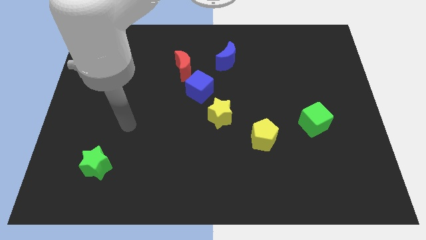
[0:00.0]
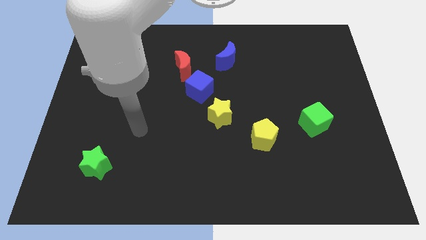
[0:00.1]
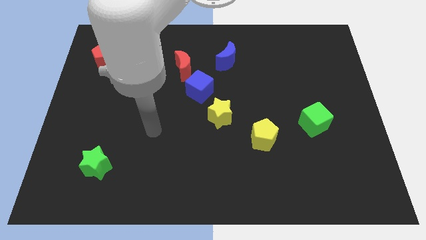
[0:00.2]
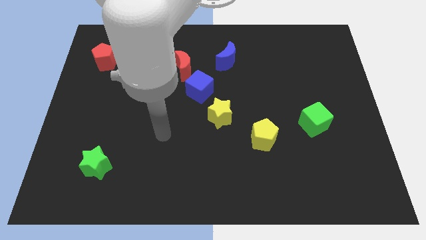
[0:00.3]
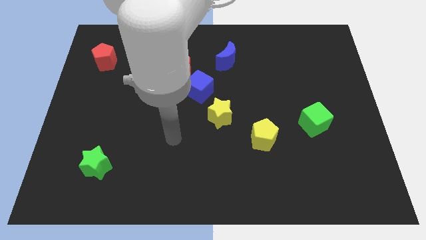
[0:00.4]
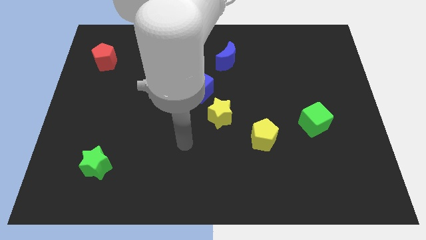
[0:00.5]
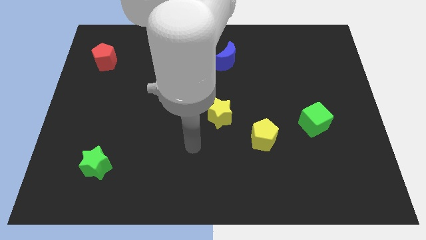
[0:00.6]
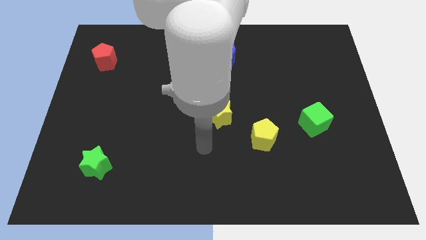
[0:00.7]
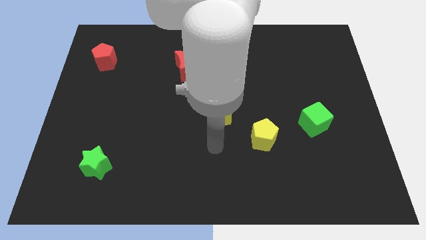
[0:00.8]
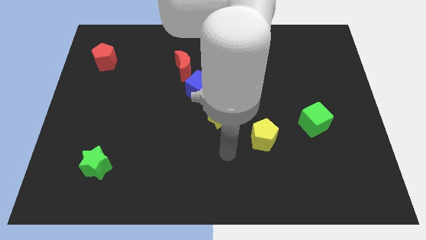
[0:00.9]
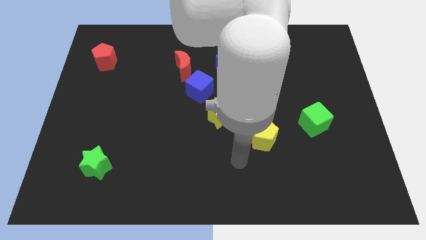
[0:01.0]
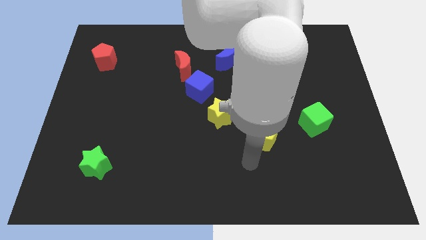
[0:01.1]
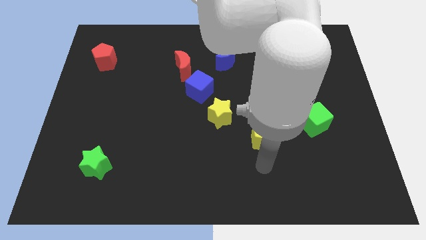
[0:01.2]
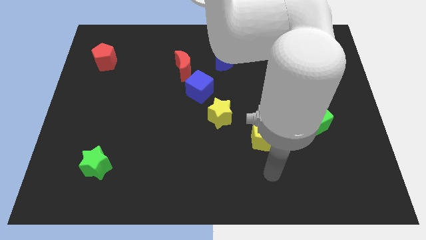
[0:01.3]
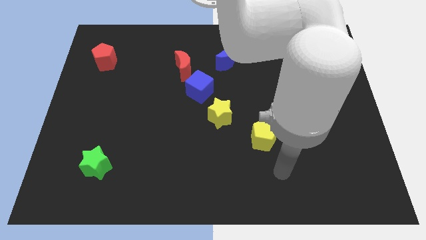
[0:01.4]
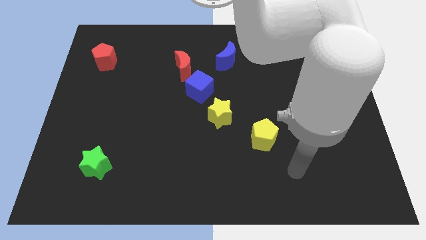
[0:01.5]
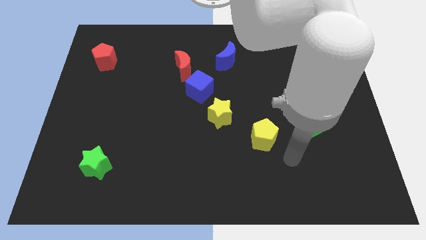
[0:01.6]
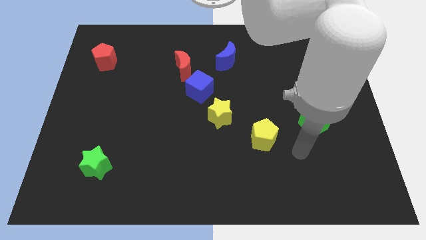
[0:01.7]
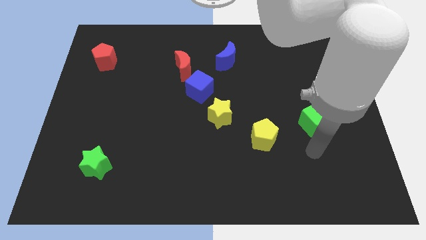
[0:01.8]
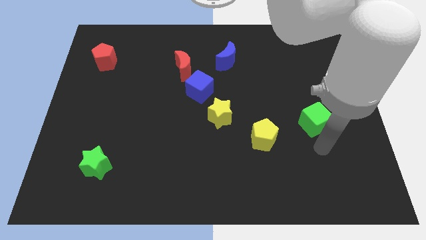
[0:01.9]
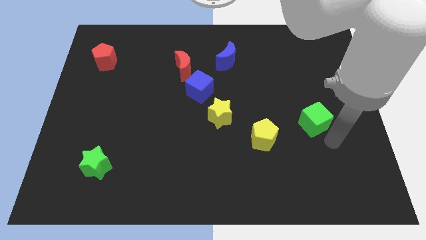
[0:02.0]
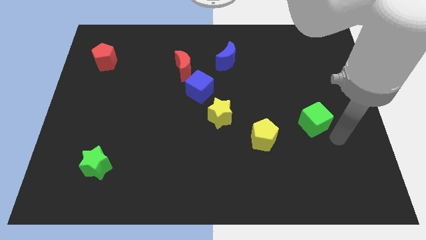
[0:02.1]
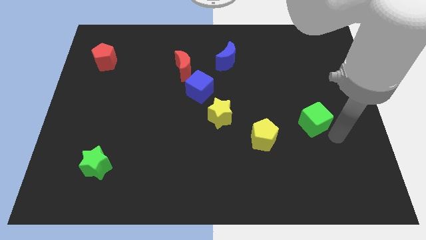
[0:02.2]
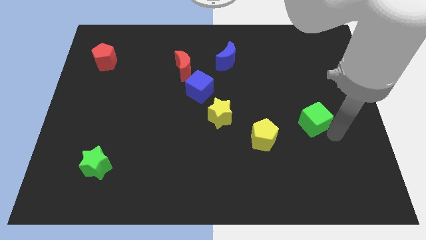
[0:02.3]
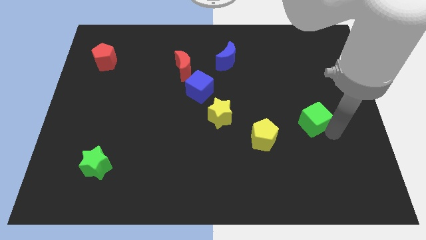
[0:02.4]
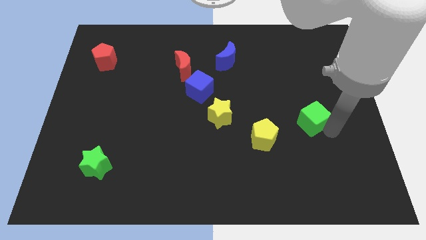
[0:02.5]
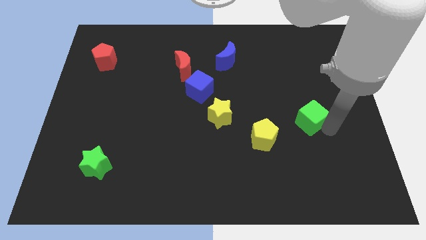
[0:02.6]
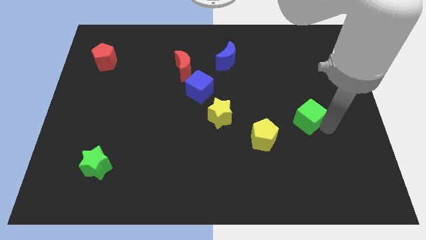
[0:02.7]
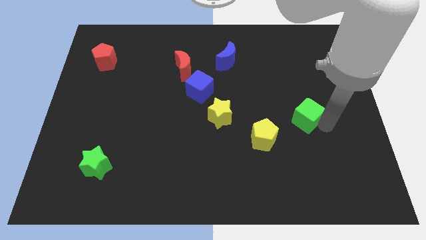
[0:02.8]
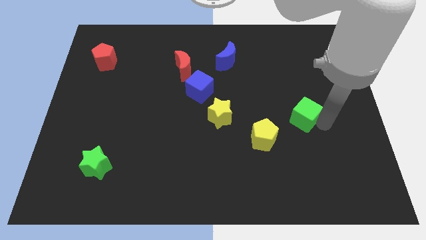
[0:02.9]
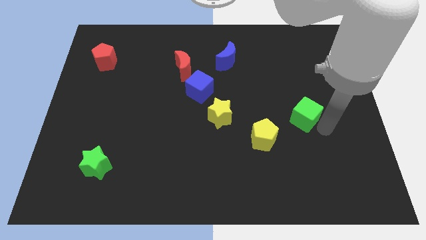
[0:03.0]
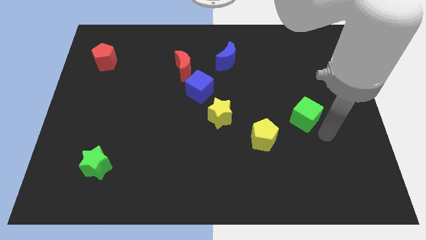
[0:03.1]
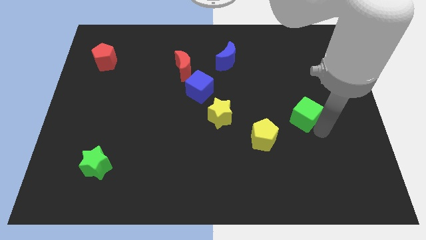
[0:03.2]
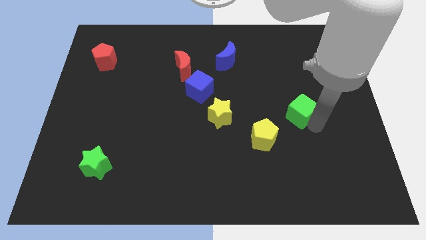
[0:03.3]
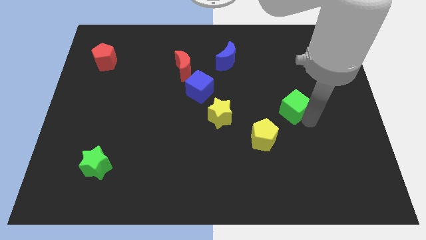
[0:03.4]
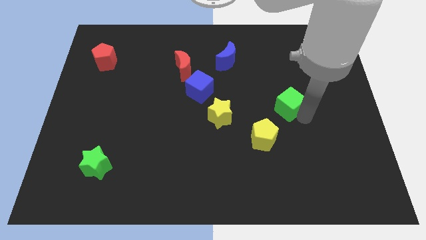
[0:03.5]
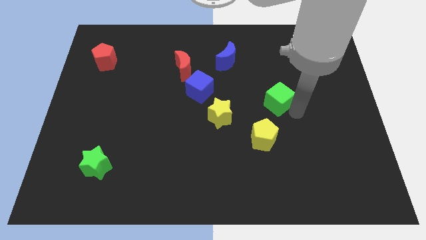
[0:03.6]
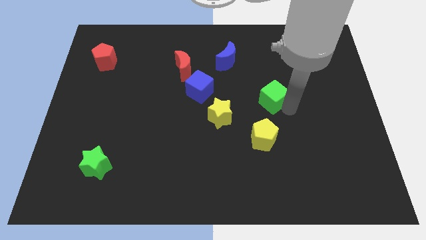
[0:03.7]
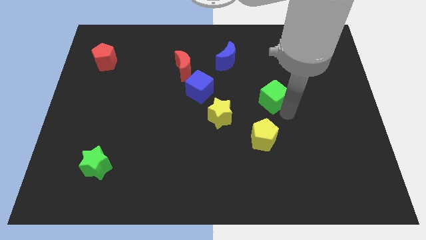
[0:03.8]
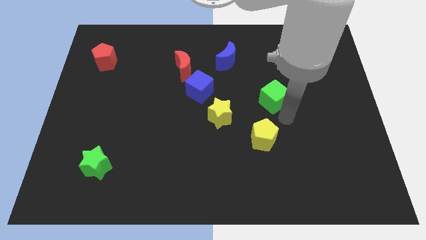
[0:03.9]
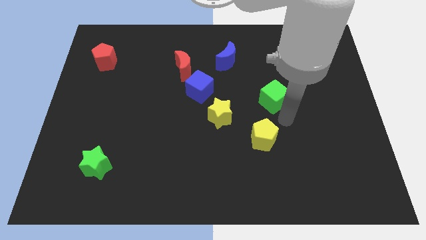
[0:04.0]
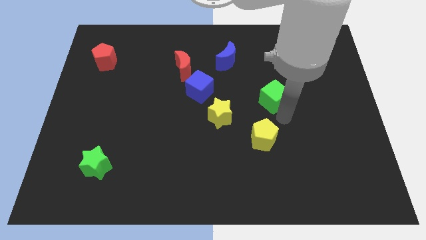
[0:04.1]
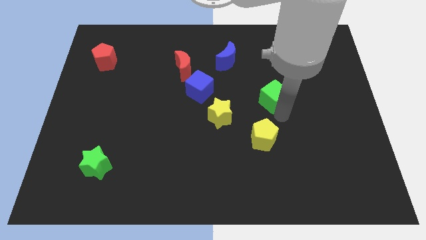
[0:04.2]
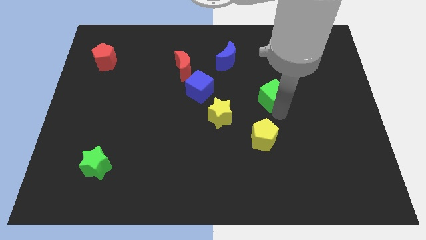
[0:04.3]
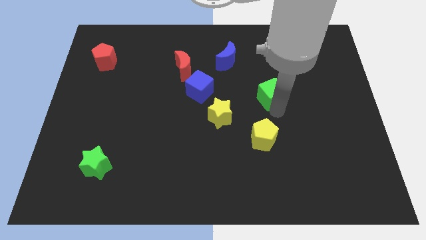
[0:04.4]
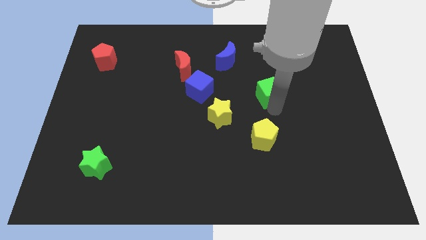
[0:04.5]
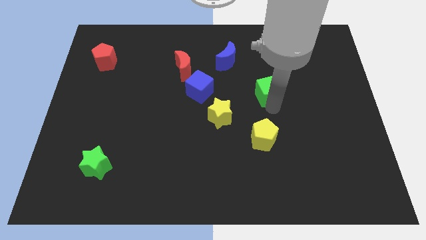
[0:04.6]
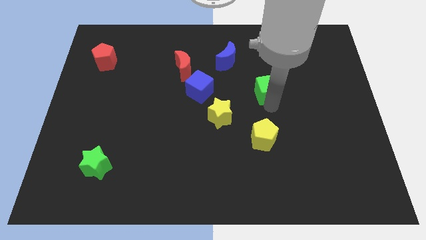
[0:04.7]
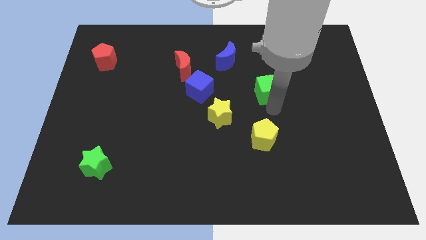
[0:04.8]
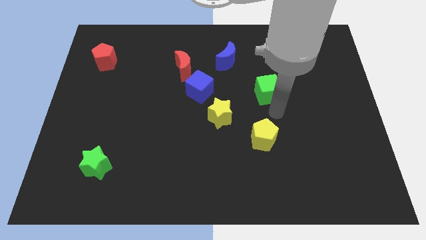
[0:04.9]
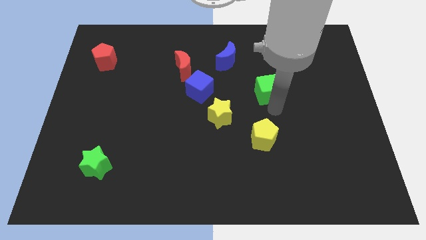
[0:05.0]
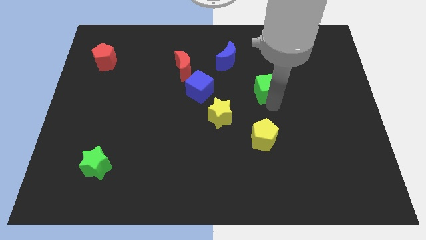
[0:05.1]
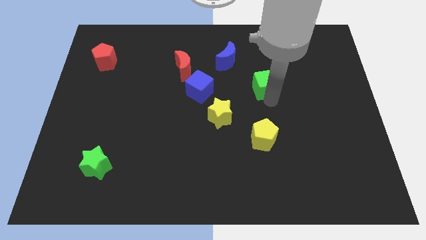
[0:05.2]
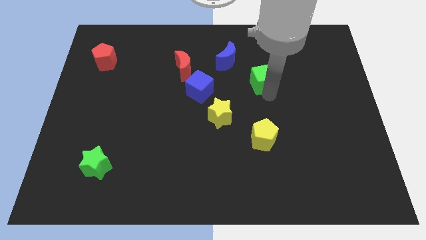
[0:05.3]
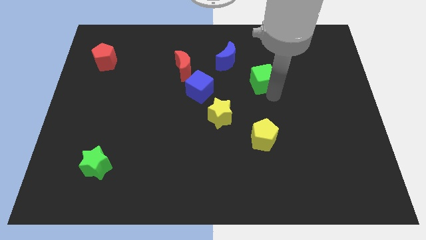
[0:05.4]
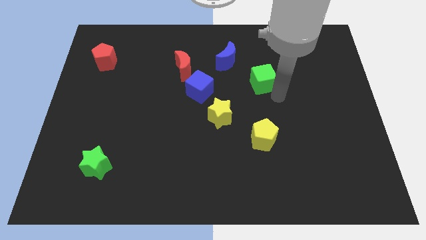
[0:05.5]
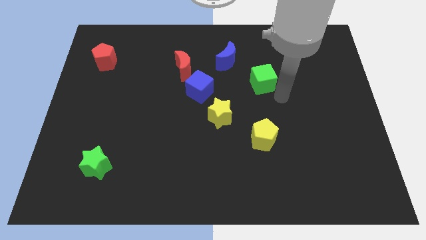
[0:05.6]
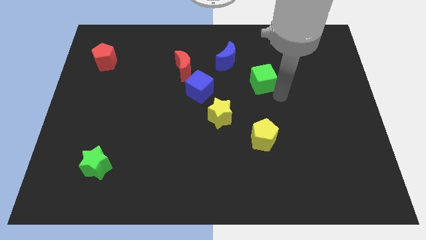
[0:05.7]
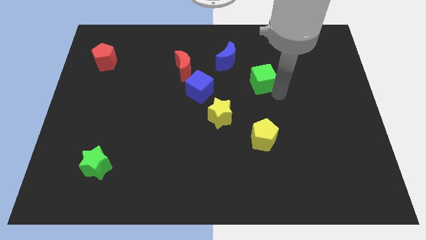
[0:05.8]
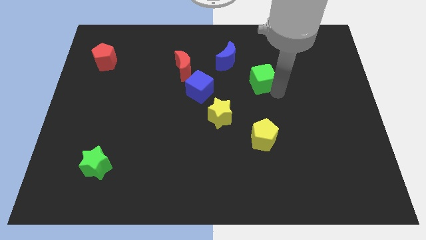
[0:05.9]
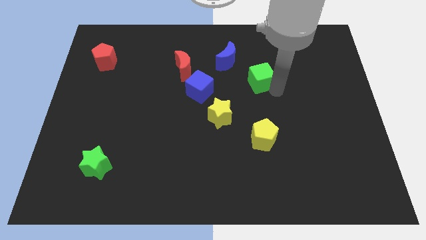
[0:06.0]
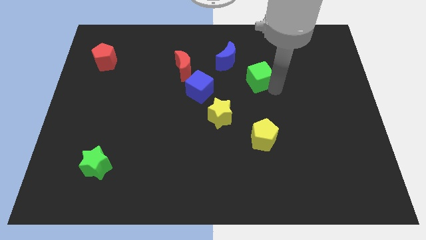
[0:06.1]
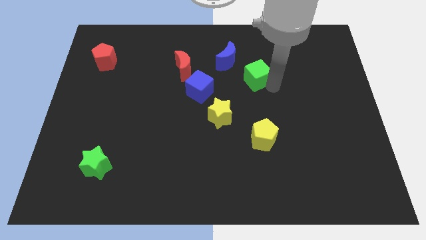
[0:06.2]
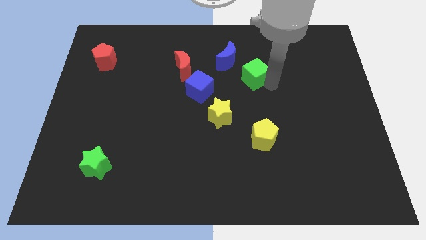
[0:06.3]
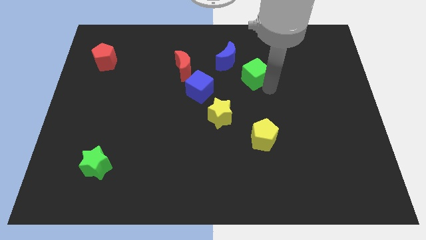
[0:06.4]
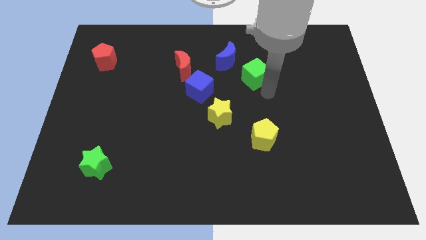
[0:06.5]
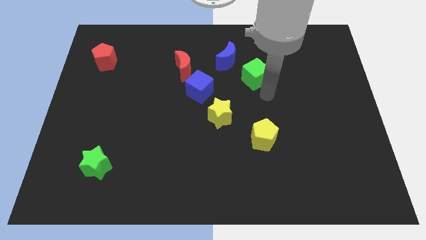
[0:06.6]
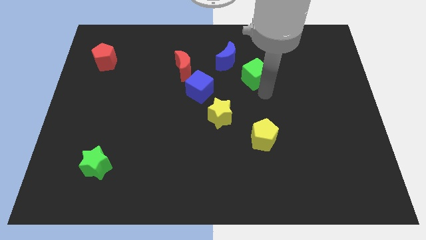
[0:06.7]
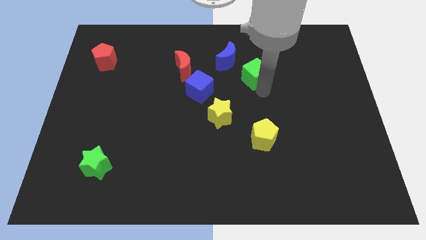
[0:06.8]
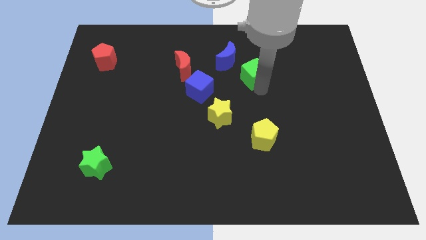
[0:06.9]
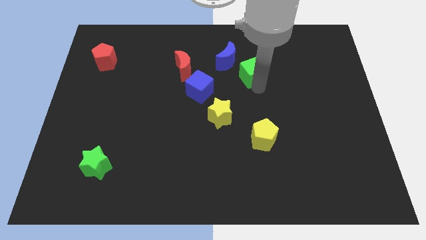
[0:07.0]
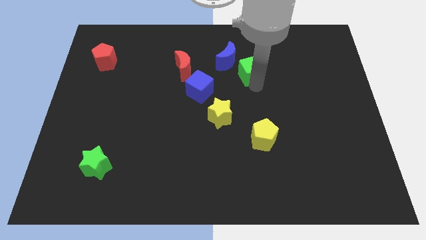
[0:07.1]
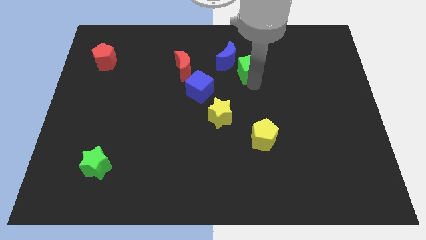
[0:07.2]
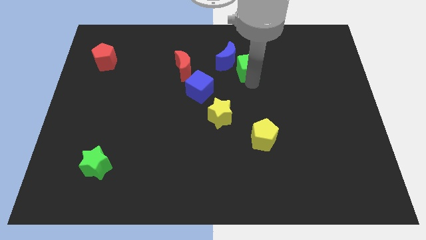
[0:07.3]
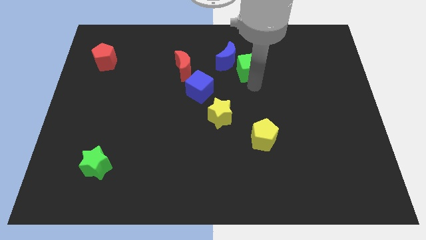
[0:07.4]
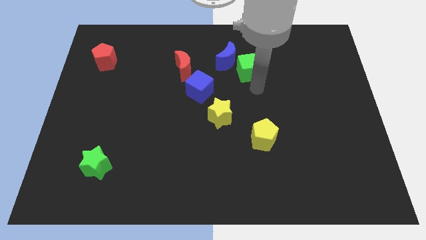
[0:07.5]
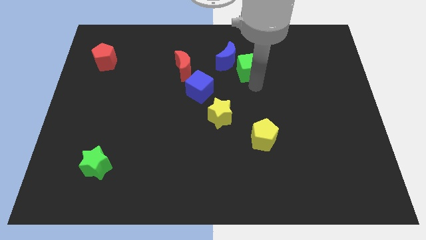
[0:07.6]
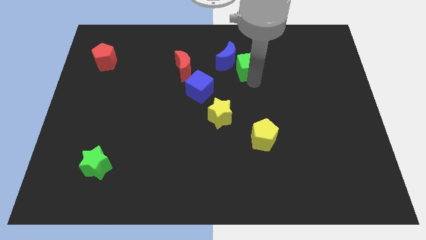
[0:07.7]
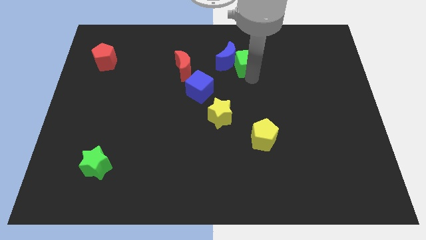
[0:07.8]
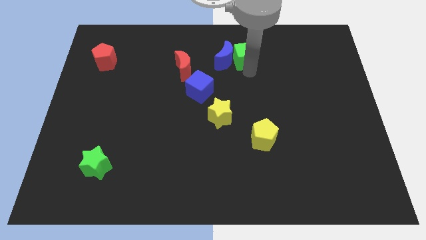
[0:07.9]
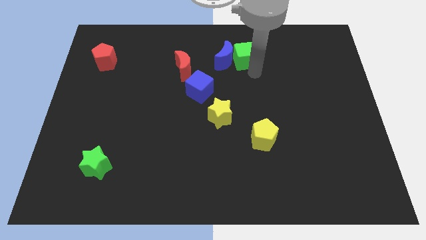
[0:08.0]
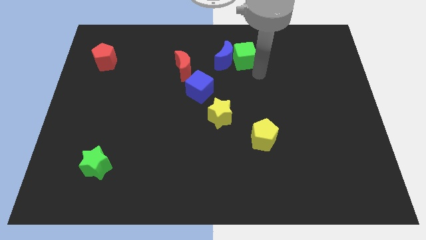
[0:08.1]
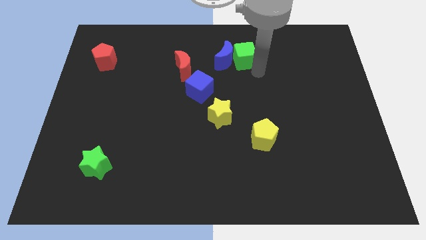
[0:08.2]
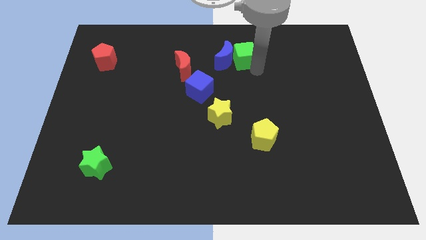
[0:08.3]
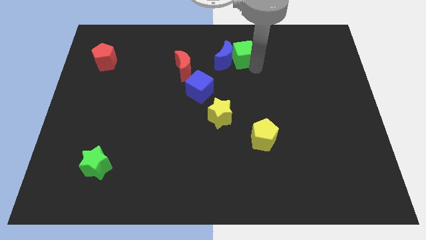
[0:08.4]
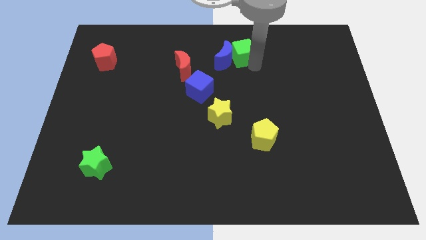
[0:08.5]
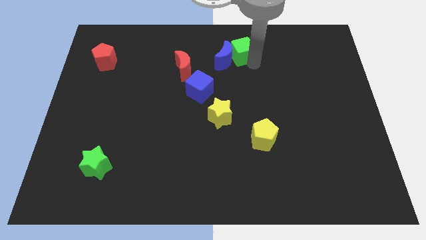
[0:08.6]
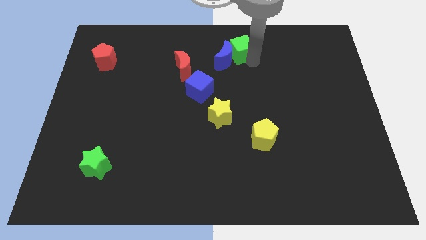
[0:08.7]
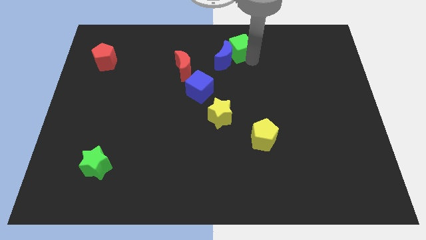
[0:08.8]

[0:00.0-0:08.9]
push the green cube to the towards your base
